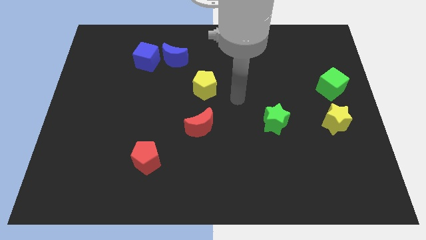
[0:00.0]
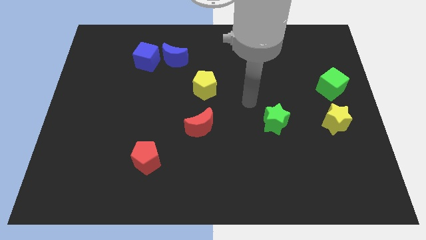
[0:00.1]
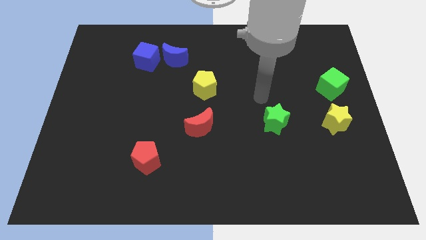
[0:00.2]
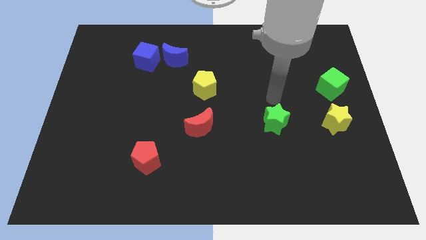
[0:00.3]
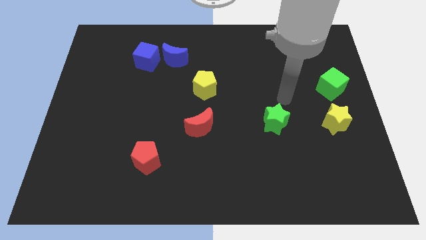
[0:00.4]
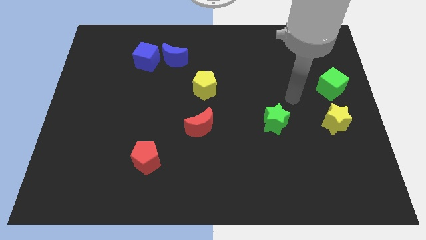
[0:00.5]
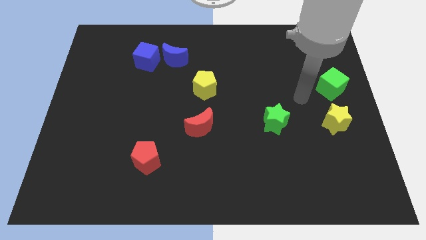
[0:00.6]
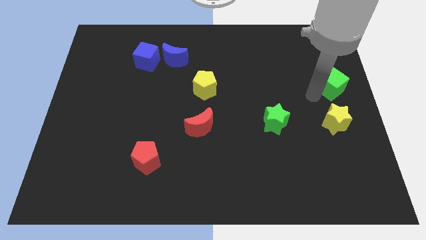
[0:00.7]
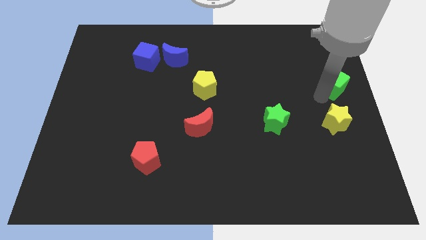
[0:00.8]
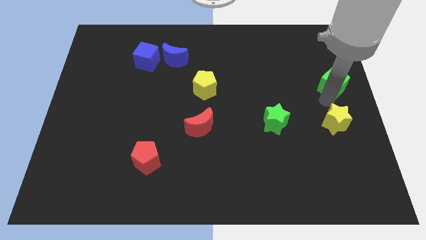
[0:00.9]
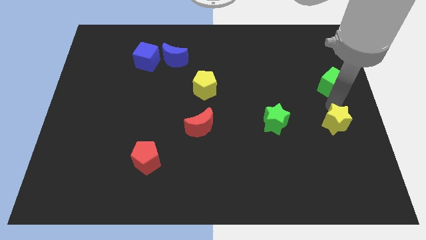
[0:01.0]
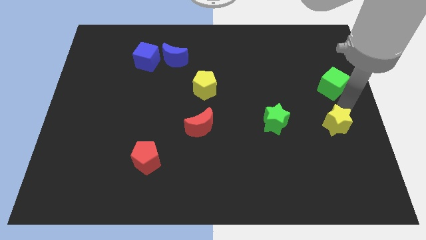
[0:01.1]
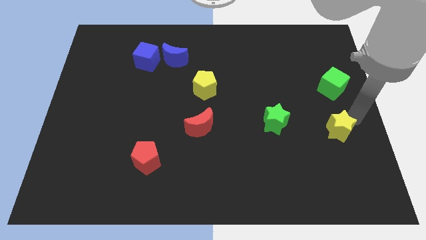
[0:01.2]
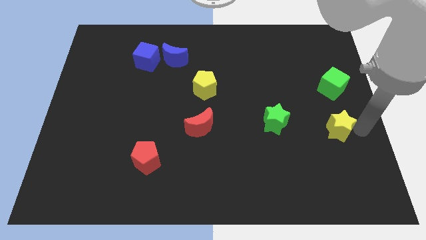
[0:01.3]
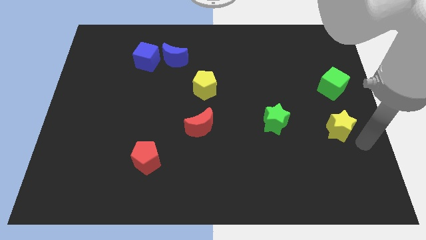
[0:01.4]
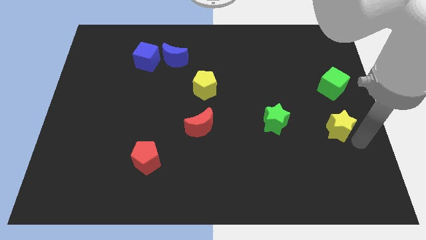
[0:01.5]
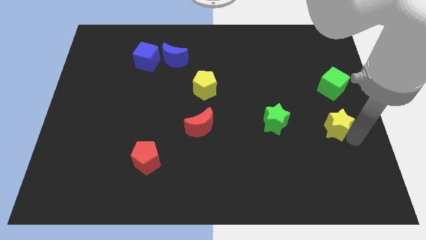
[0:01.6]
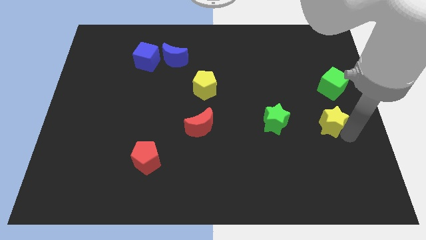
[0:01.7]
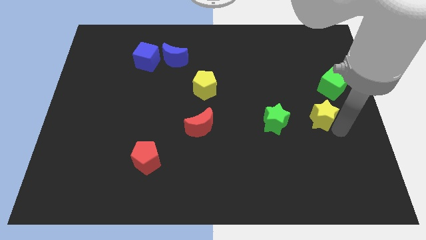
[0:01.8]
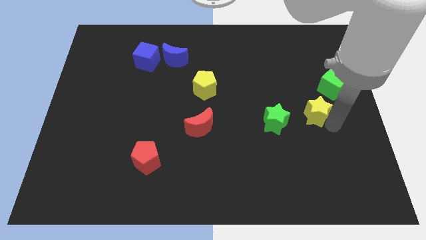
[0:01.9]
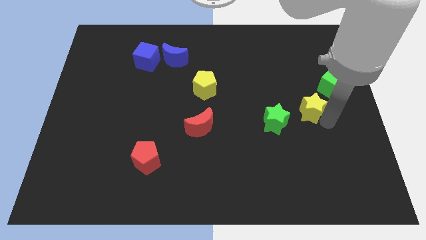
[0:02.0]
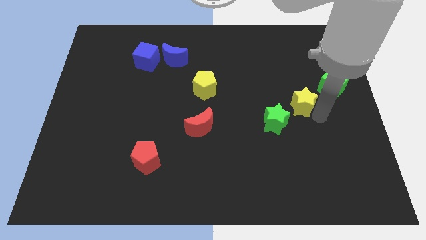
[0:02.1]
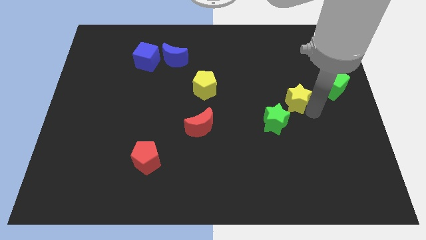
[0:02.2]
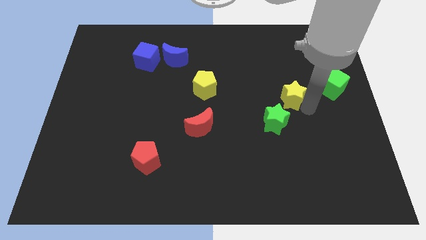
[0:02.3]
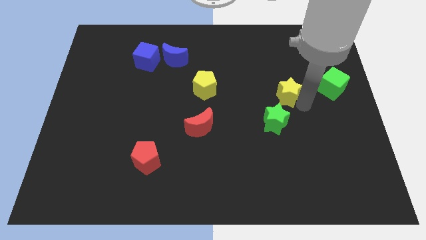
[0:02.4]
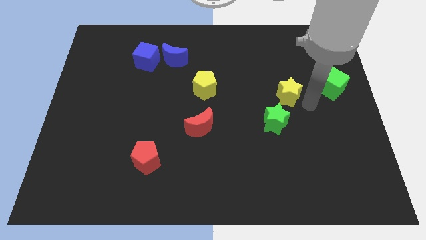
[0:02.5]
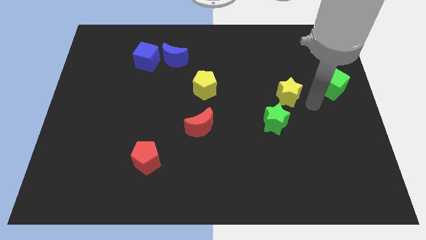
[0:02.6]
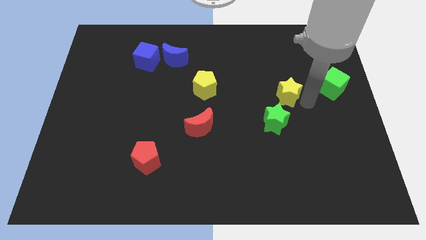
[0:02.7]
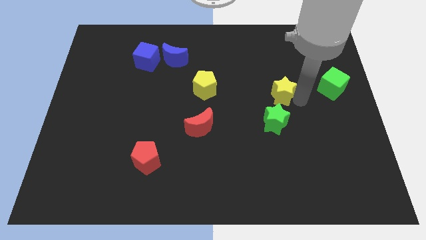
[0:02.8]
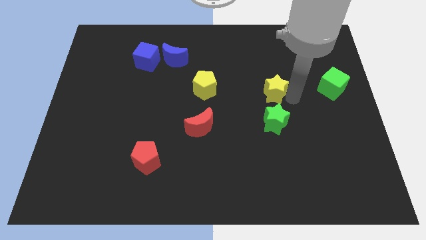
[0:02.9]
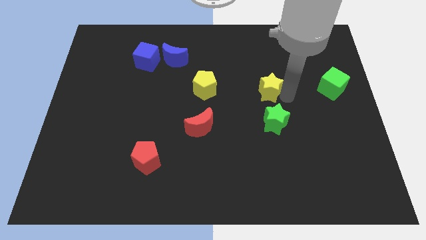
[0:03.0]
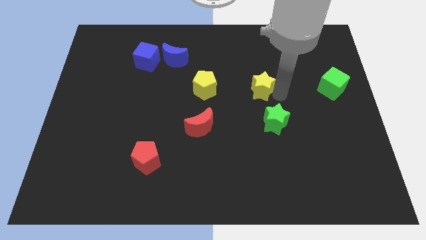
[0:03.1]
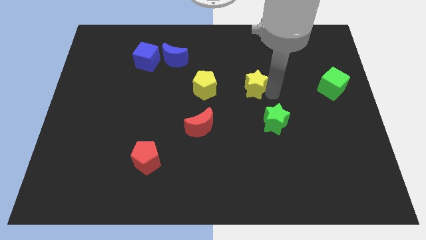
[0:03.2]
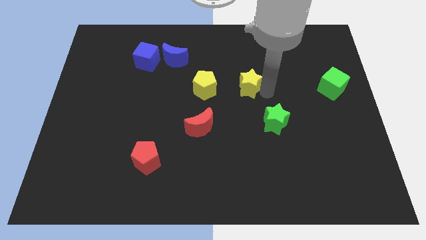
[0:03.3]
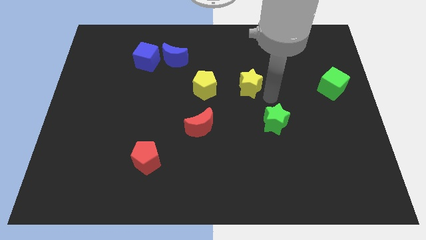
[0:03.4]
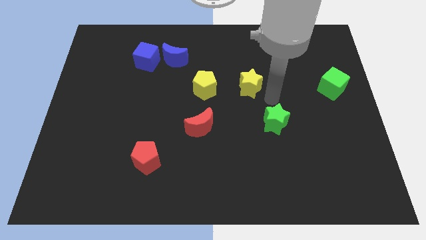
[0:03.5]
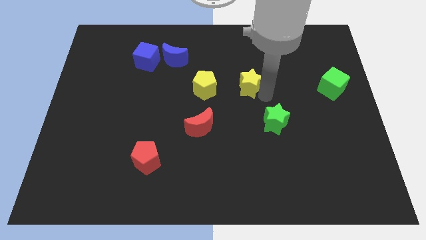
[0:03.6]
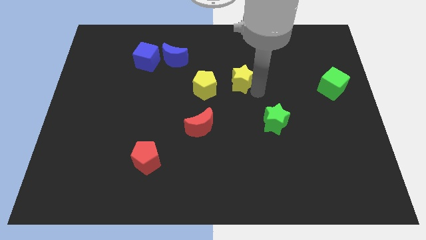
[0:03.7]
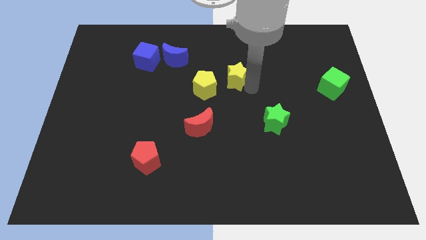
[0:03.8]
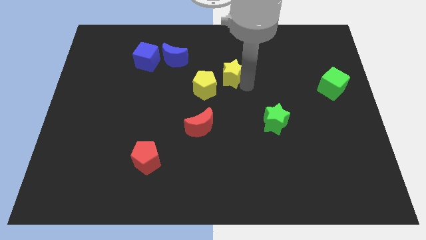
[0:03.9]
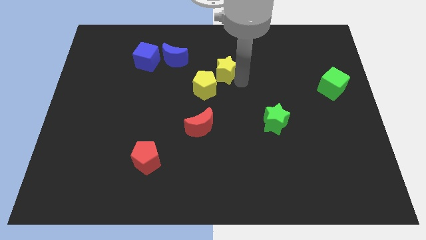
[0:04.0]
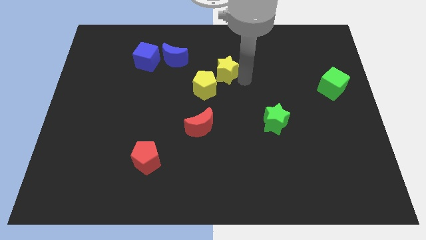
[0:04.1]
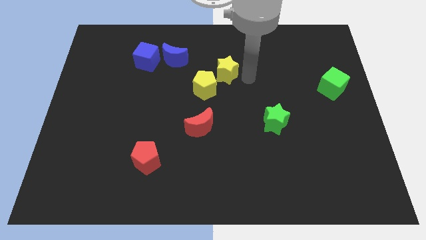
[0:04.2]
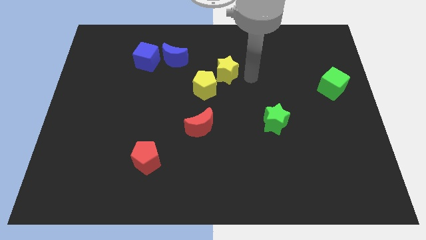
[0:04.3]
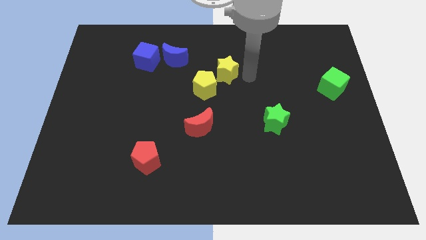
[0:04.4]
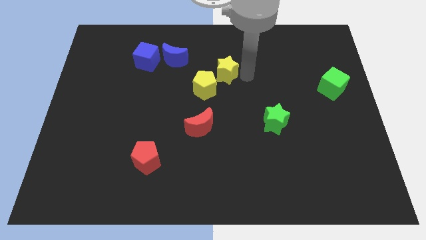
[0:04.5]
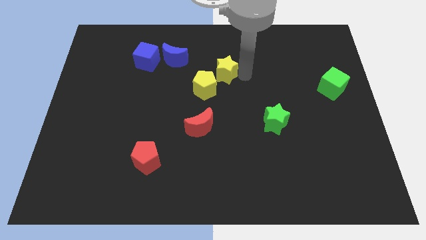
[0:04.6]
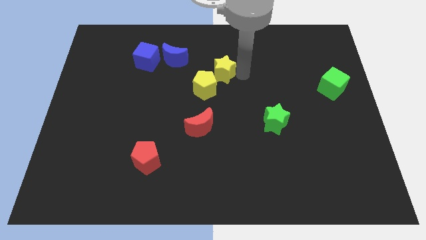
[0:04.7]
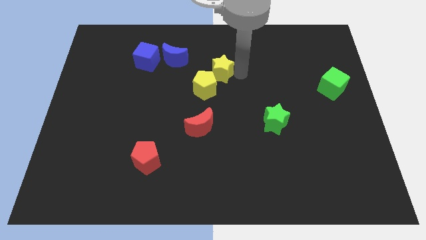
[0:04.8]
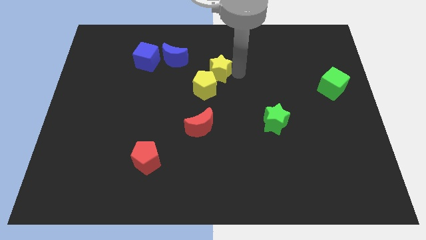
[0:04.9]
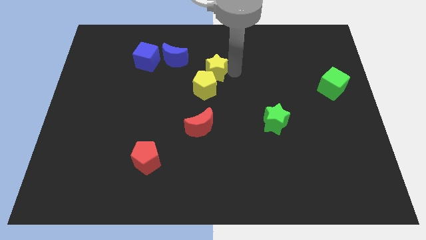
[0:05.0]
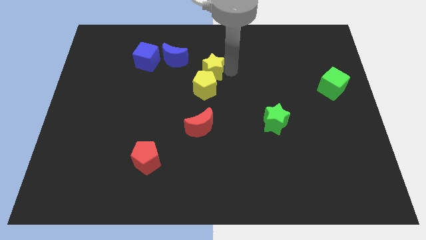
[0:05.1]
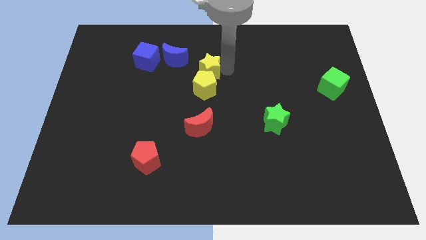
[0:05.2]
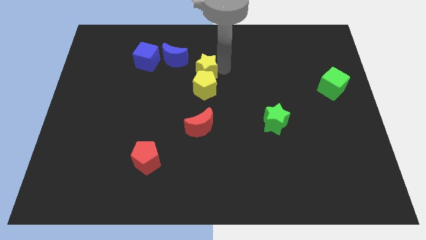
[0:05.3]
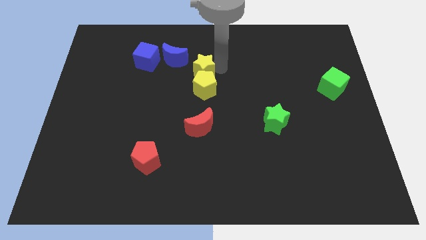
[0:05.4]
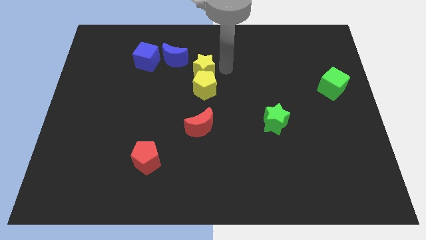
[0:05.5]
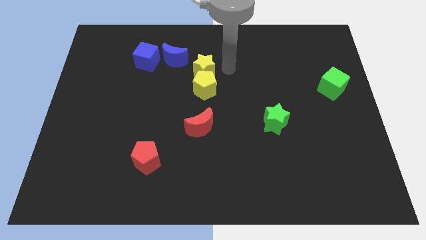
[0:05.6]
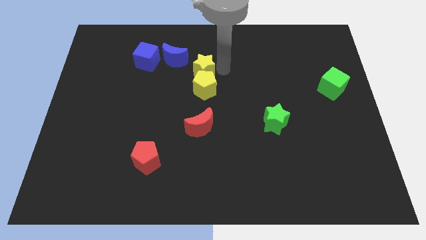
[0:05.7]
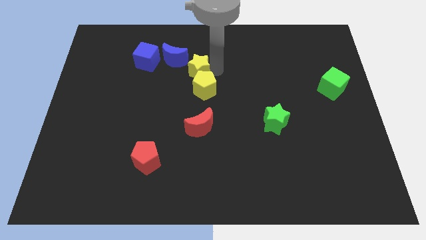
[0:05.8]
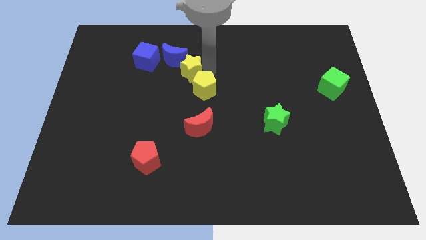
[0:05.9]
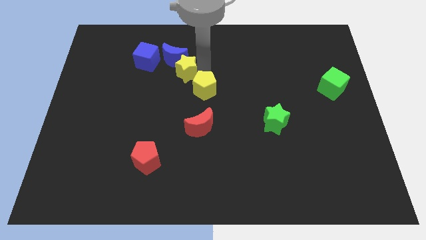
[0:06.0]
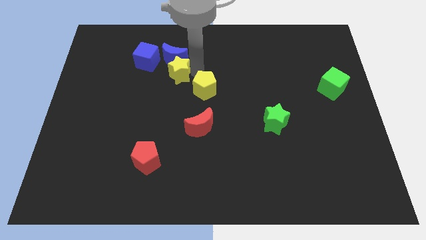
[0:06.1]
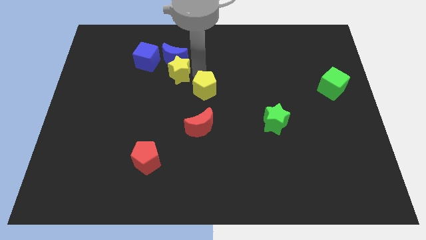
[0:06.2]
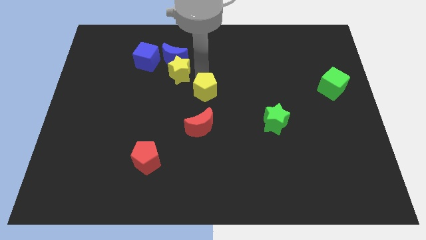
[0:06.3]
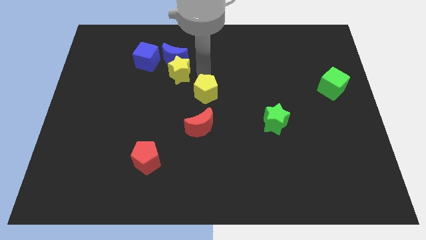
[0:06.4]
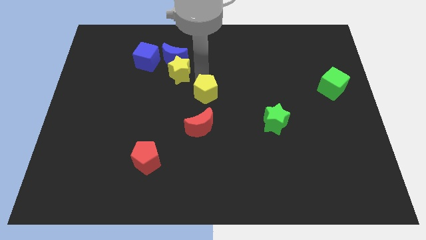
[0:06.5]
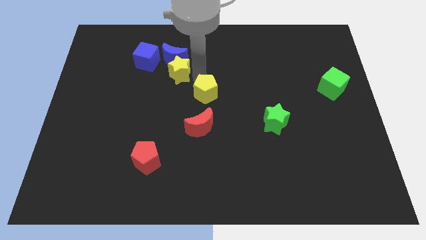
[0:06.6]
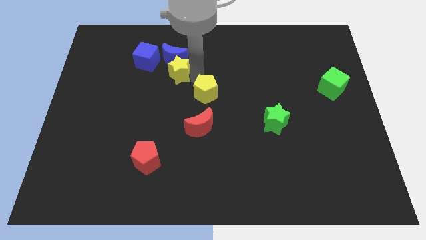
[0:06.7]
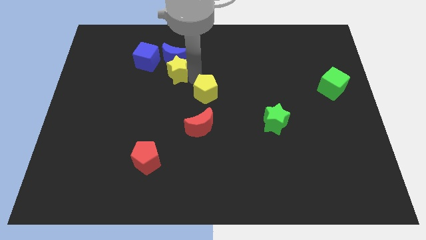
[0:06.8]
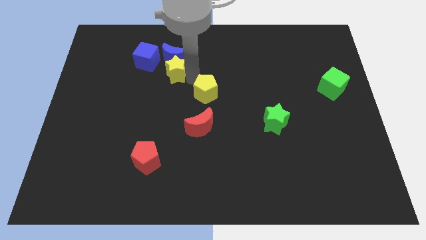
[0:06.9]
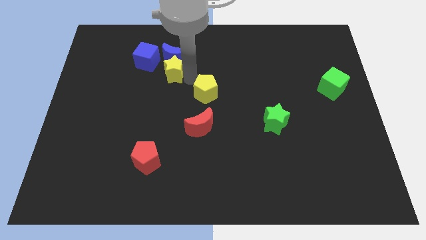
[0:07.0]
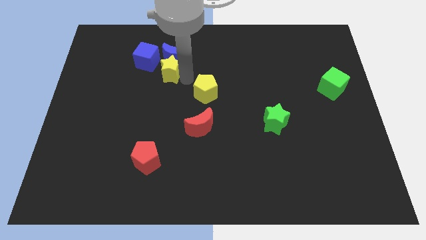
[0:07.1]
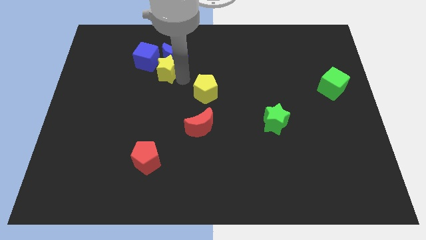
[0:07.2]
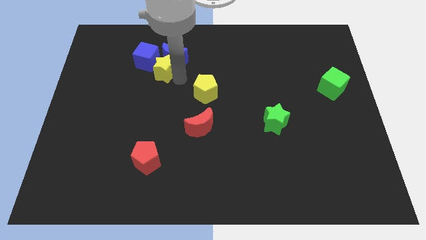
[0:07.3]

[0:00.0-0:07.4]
push the yellow star close to the blue cube

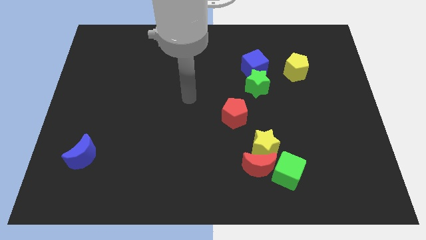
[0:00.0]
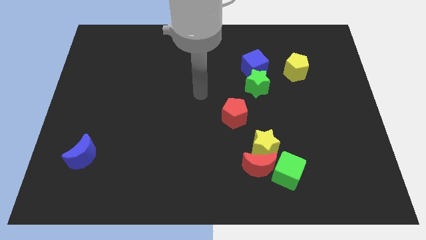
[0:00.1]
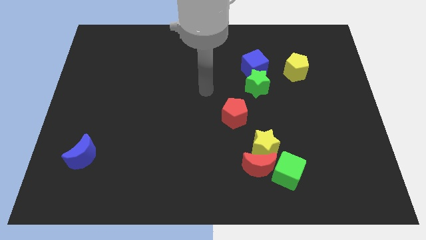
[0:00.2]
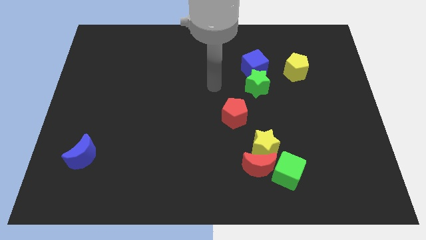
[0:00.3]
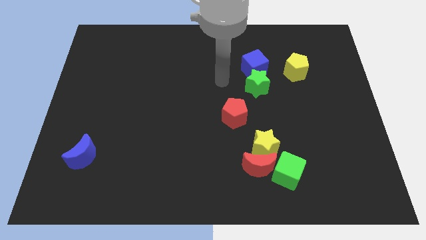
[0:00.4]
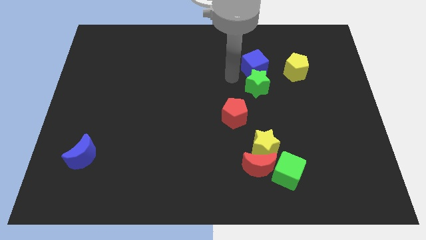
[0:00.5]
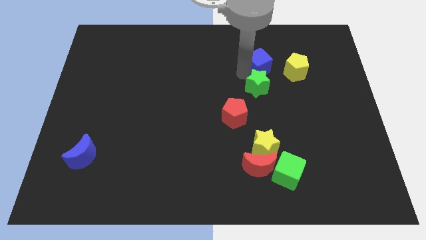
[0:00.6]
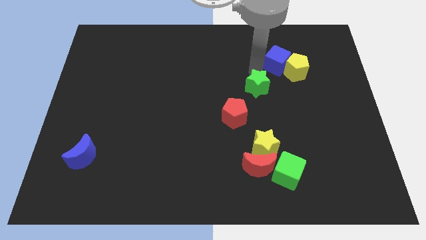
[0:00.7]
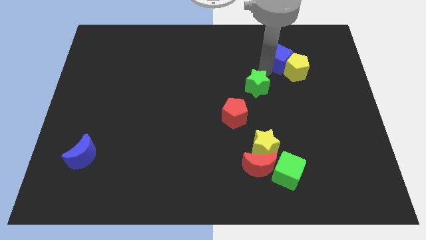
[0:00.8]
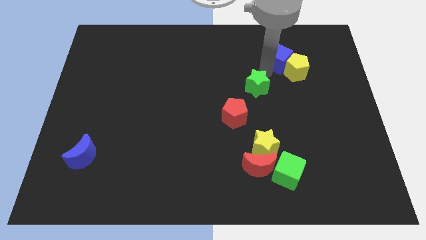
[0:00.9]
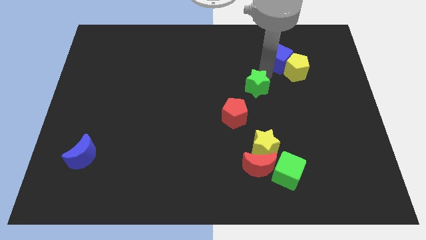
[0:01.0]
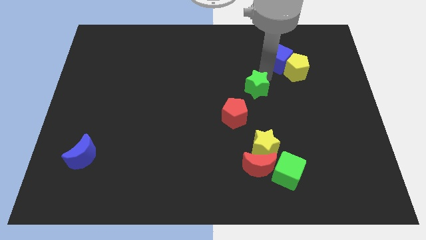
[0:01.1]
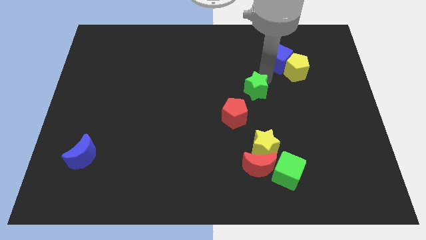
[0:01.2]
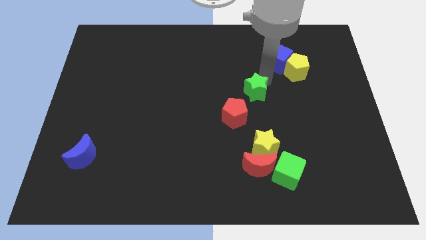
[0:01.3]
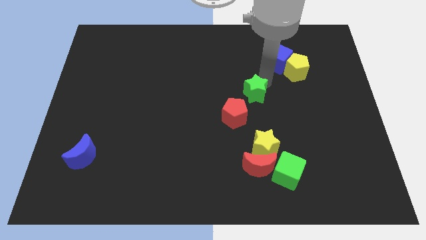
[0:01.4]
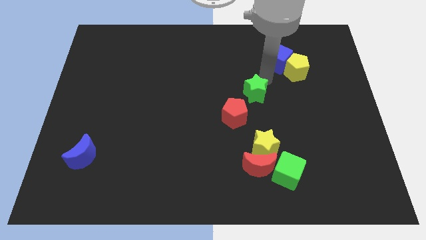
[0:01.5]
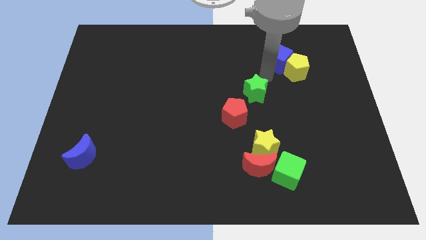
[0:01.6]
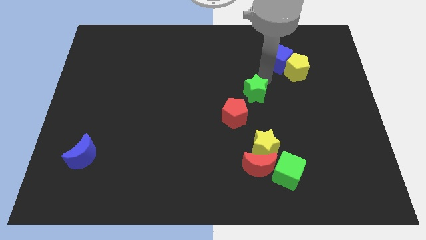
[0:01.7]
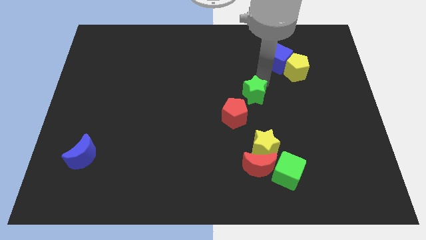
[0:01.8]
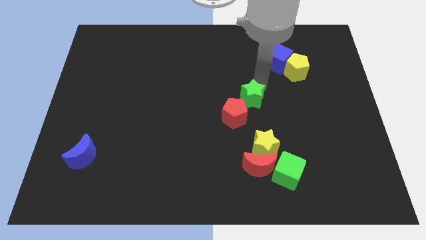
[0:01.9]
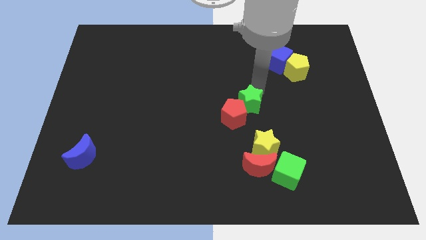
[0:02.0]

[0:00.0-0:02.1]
move the green star next to the red pentagon
